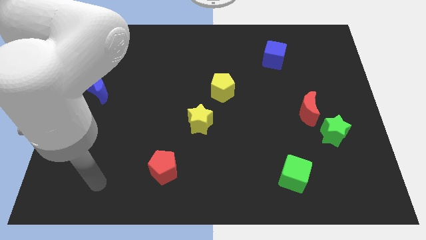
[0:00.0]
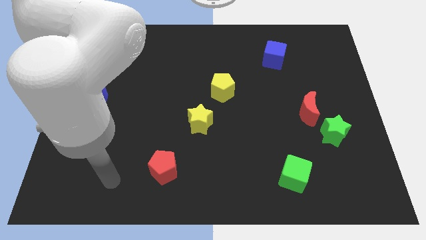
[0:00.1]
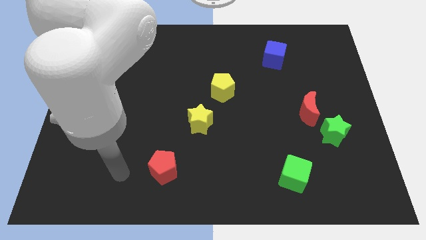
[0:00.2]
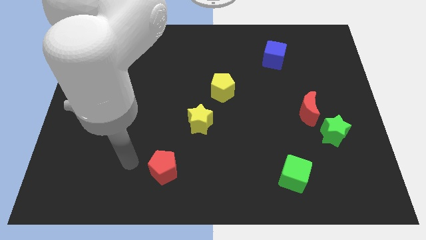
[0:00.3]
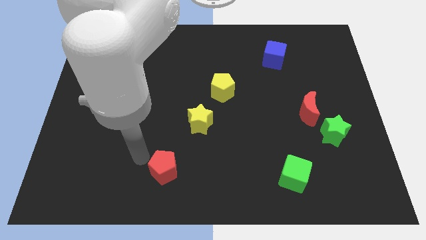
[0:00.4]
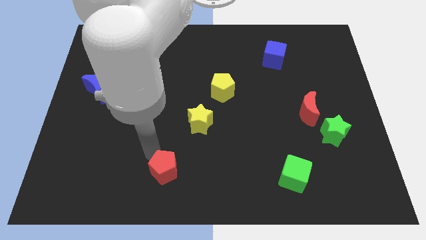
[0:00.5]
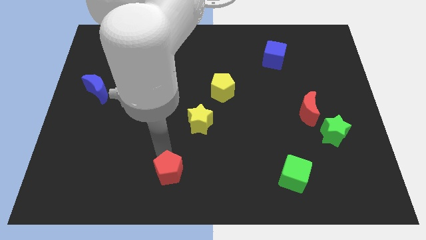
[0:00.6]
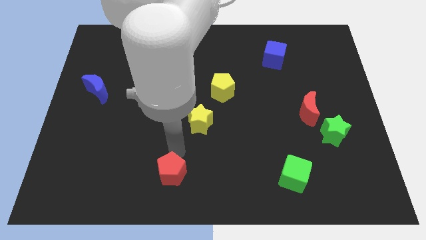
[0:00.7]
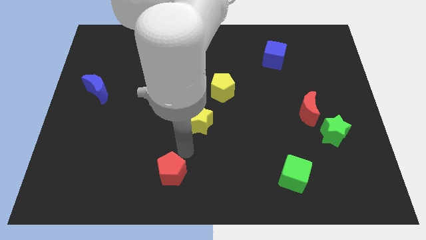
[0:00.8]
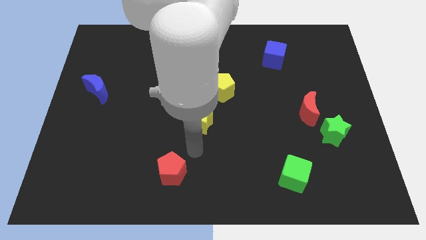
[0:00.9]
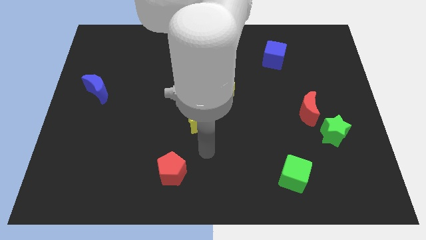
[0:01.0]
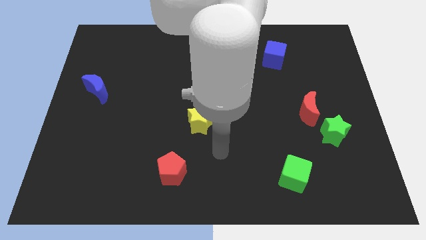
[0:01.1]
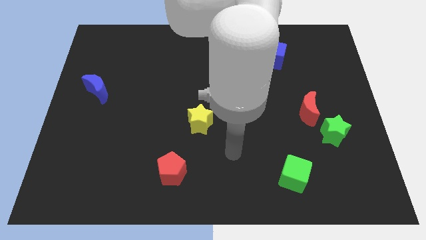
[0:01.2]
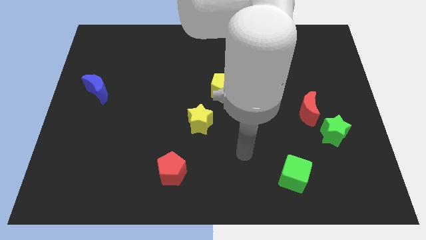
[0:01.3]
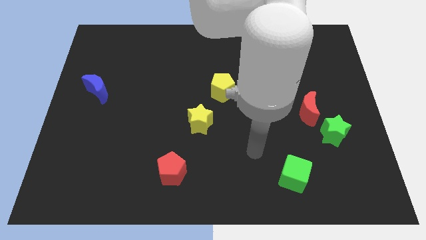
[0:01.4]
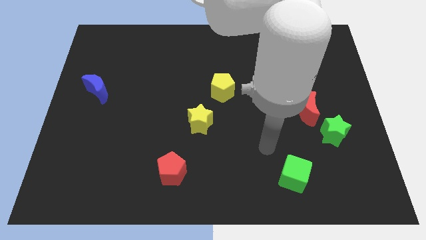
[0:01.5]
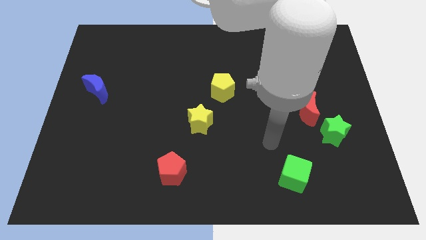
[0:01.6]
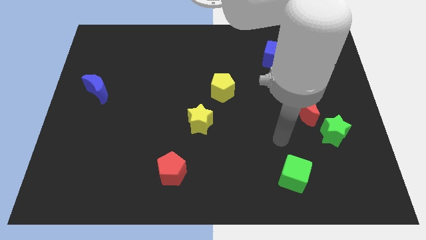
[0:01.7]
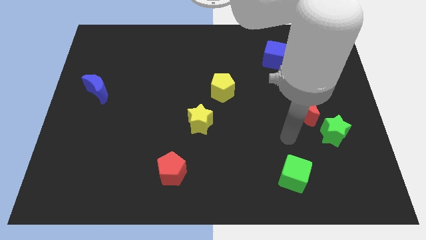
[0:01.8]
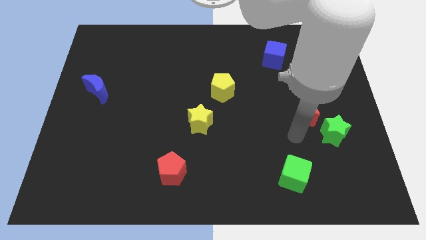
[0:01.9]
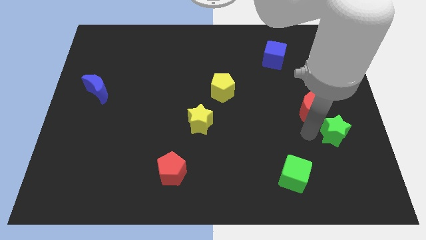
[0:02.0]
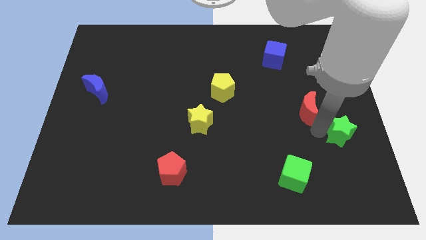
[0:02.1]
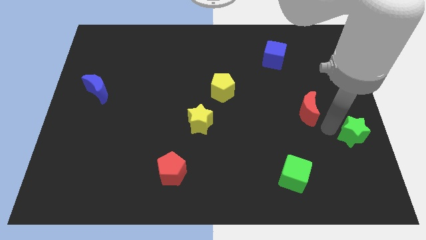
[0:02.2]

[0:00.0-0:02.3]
pull the red moon apart from the green star

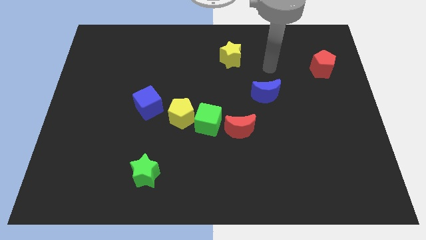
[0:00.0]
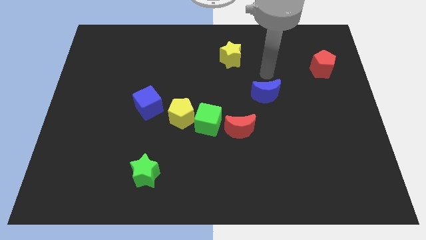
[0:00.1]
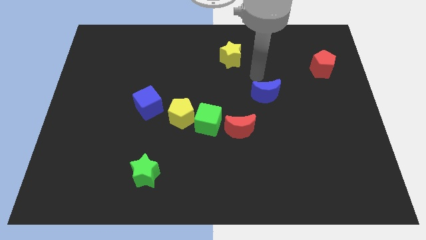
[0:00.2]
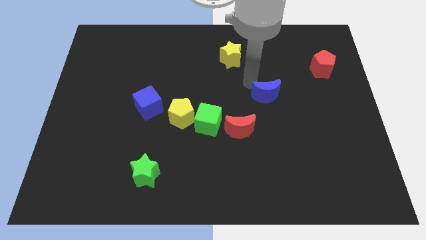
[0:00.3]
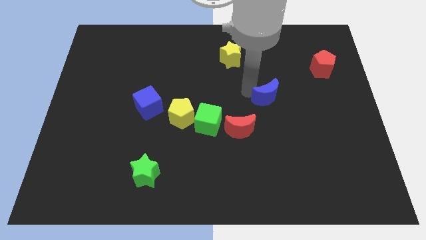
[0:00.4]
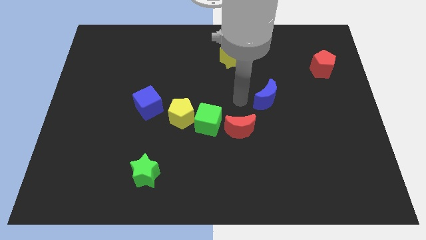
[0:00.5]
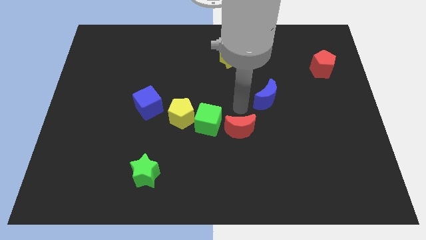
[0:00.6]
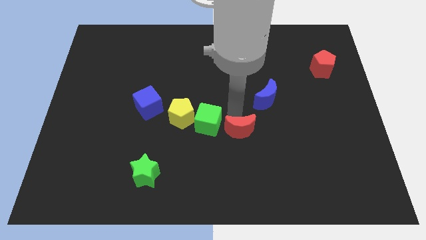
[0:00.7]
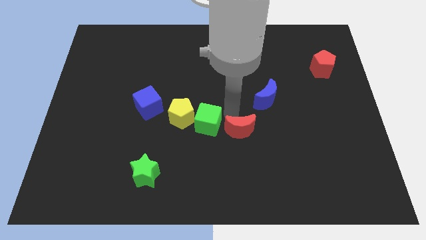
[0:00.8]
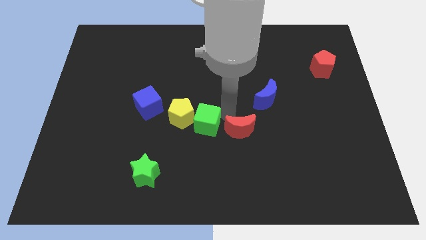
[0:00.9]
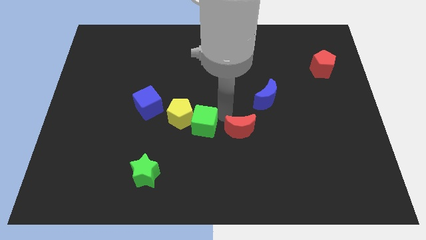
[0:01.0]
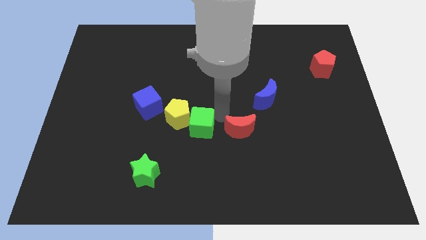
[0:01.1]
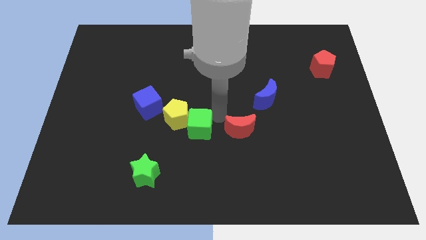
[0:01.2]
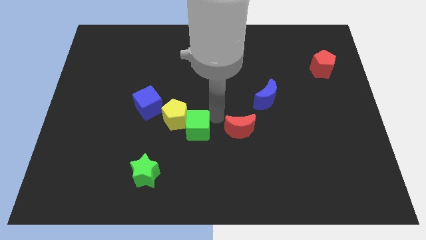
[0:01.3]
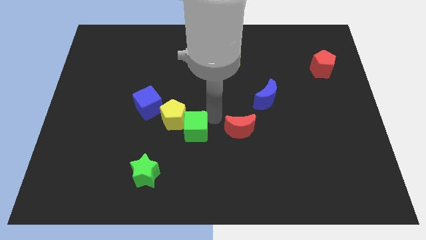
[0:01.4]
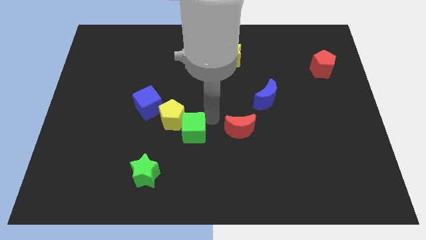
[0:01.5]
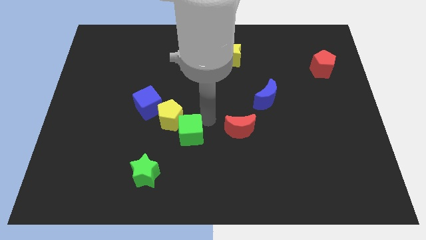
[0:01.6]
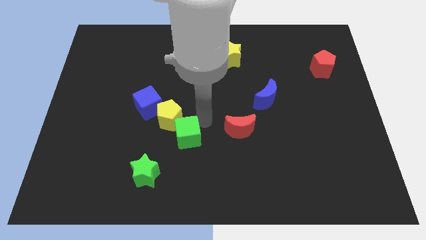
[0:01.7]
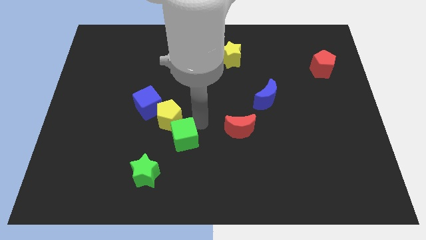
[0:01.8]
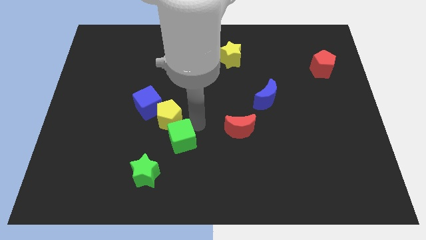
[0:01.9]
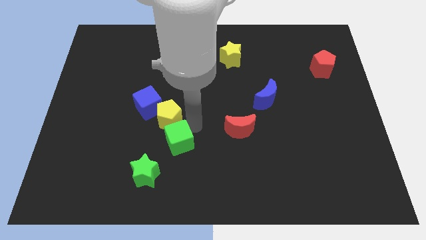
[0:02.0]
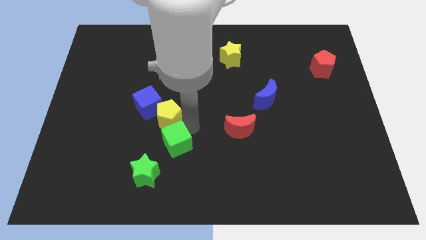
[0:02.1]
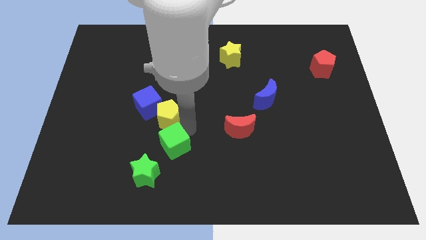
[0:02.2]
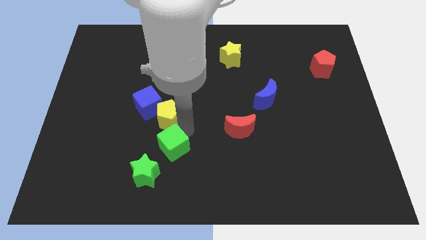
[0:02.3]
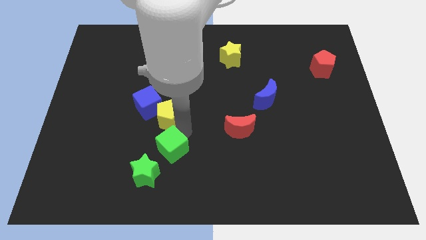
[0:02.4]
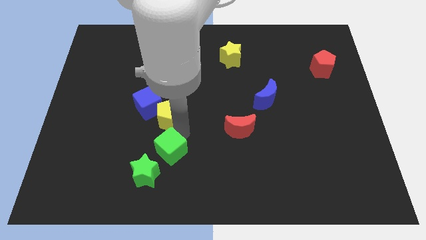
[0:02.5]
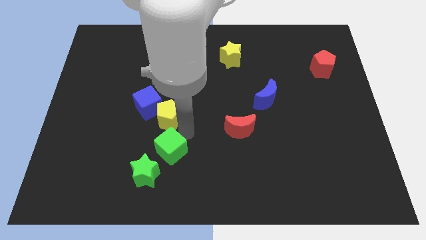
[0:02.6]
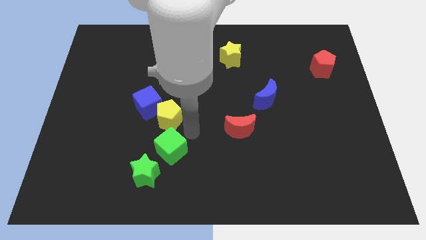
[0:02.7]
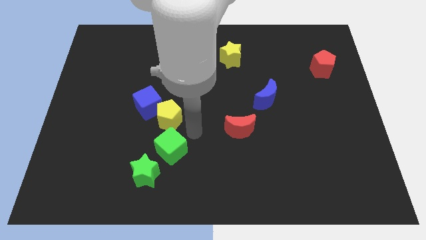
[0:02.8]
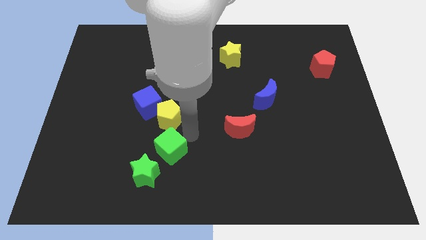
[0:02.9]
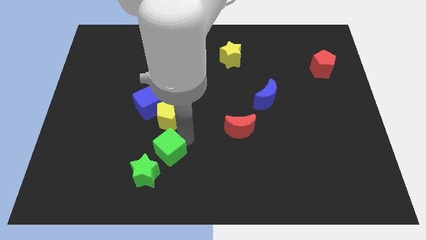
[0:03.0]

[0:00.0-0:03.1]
move the green cube away from the yellow pentagon and red moon

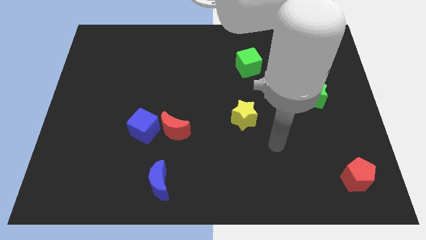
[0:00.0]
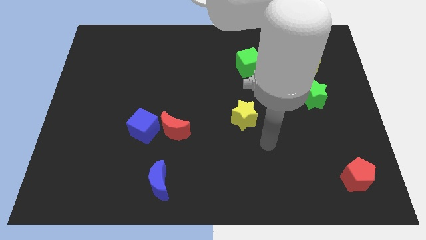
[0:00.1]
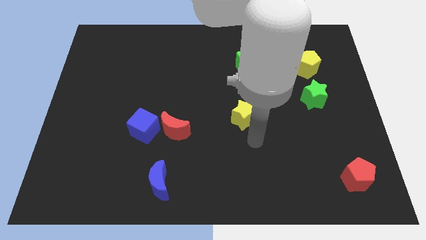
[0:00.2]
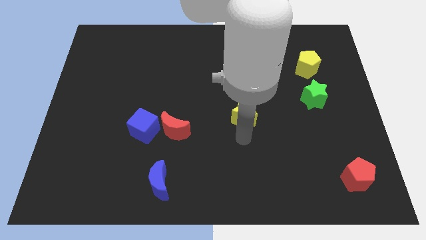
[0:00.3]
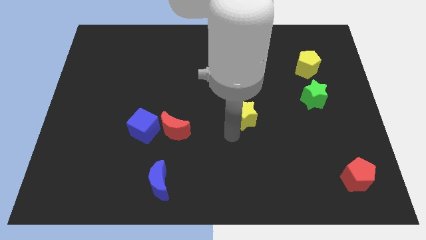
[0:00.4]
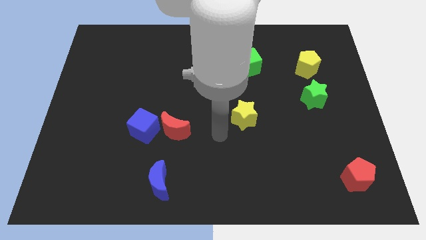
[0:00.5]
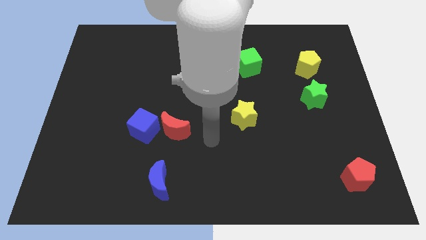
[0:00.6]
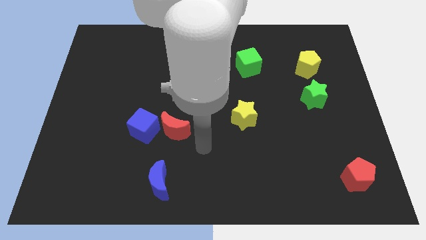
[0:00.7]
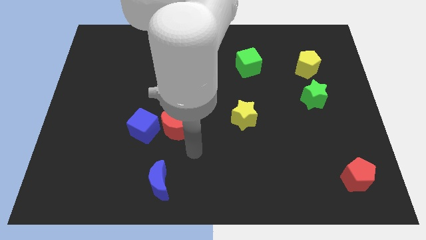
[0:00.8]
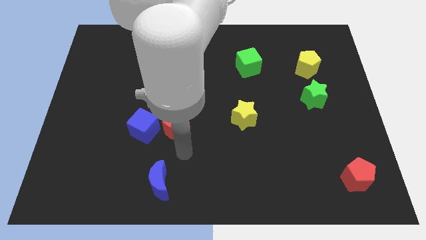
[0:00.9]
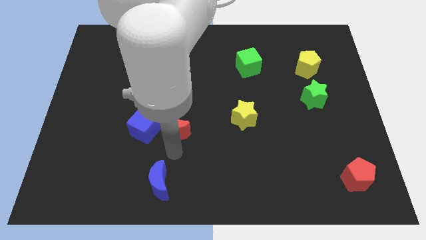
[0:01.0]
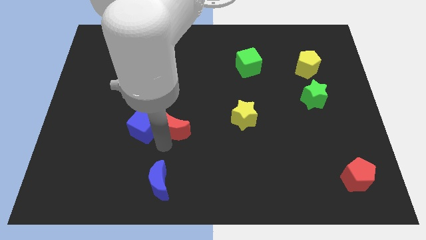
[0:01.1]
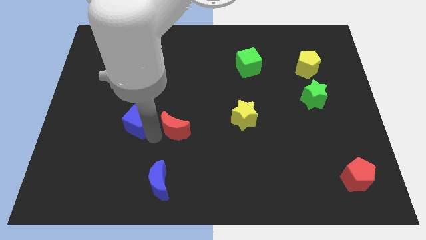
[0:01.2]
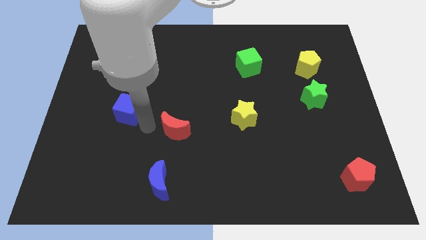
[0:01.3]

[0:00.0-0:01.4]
separate the red moon from the blue cube

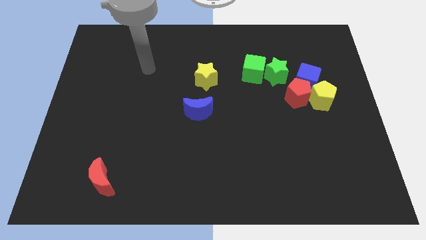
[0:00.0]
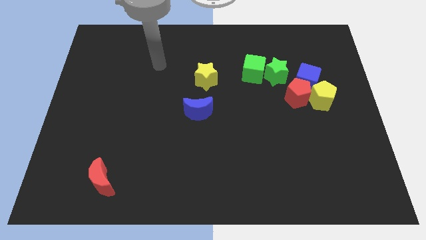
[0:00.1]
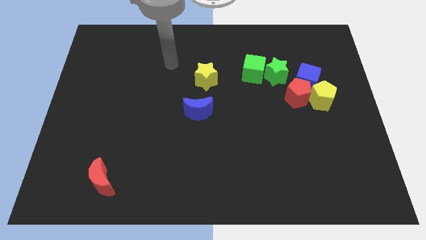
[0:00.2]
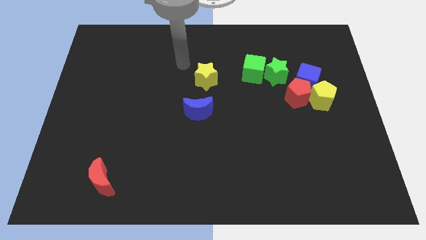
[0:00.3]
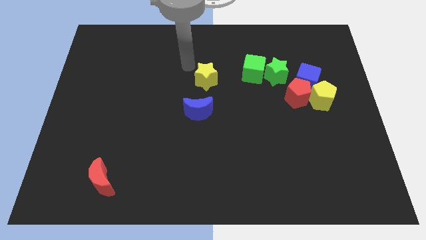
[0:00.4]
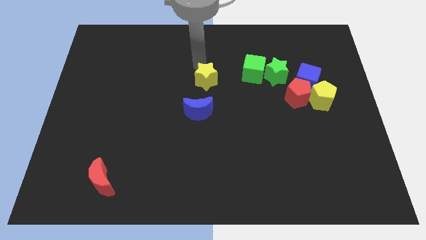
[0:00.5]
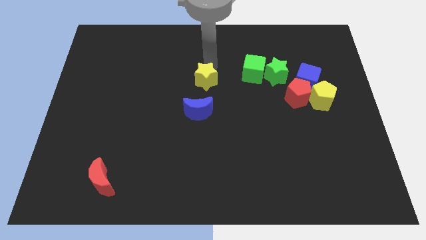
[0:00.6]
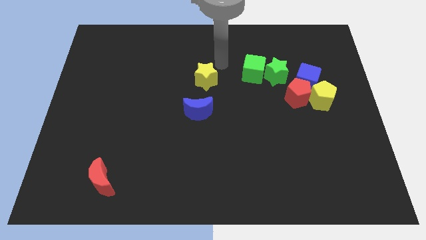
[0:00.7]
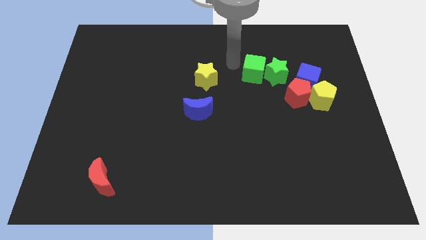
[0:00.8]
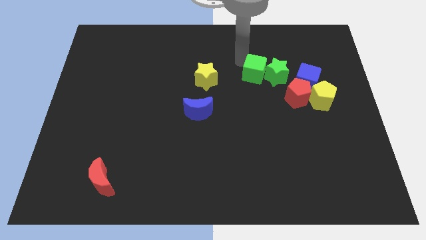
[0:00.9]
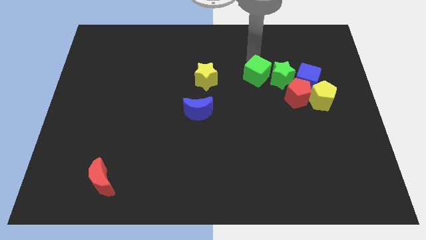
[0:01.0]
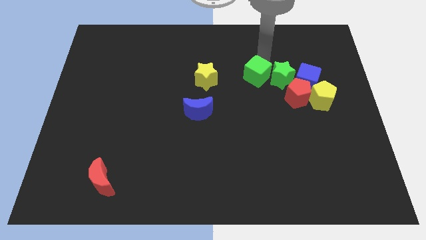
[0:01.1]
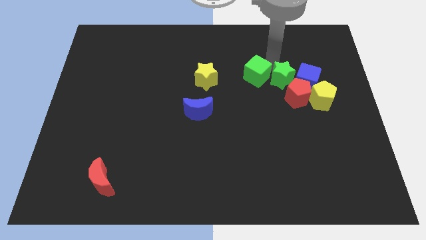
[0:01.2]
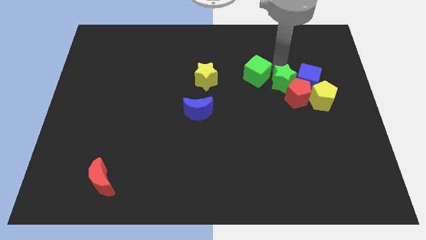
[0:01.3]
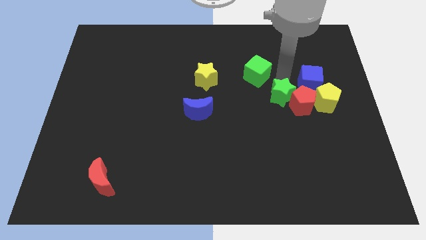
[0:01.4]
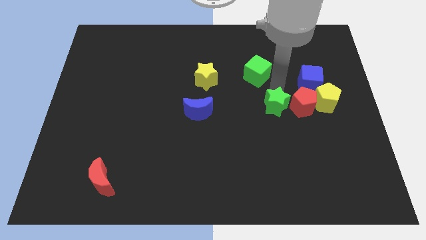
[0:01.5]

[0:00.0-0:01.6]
move the green cube away from the green star

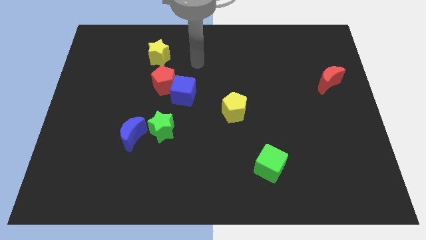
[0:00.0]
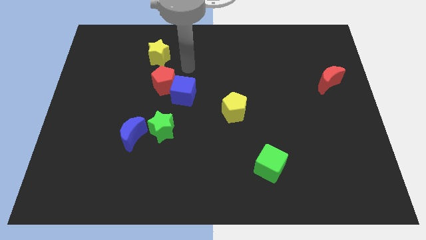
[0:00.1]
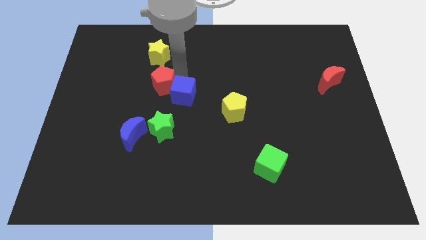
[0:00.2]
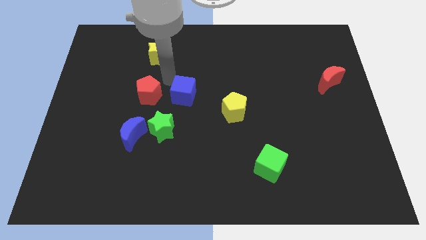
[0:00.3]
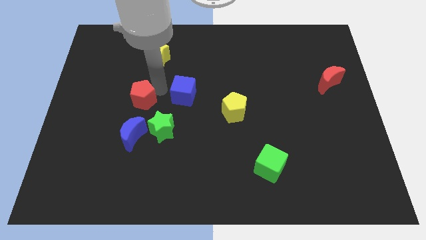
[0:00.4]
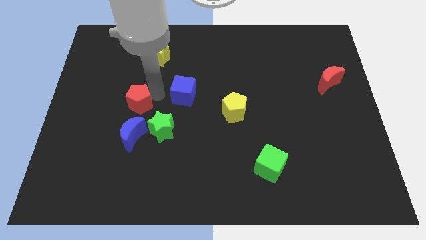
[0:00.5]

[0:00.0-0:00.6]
move the blue cube away from the red pentagon

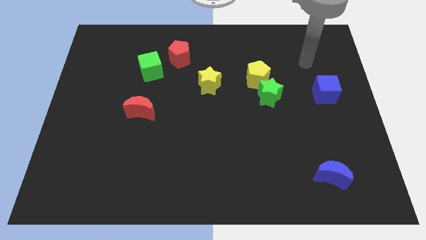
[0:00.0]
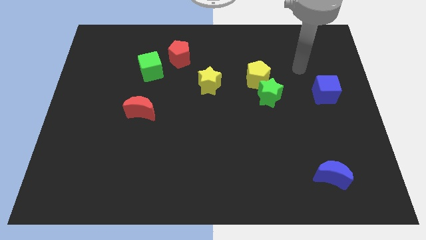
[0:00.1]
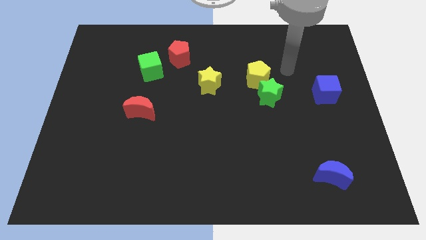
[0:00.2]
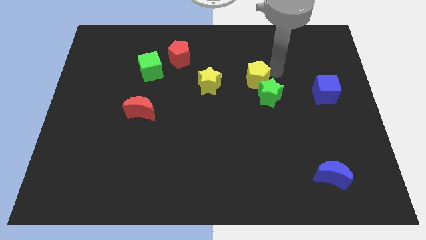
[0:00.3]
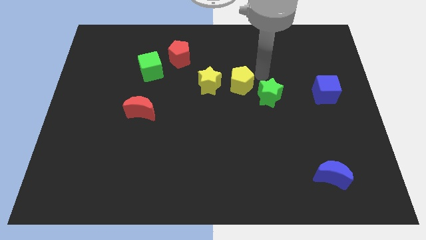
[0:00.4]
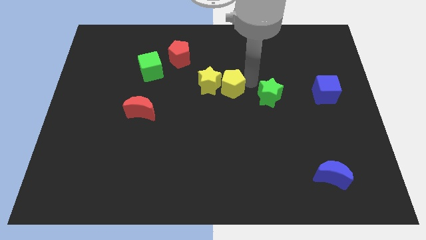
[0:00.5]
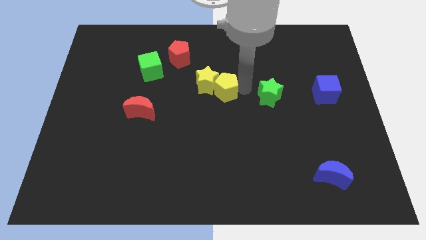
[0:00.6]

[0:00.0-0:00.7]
separate the green star from the yellow pentagon
